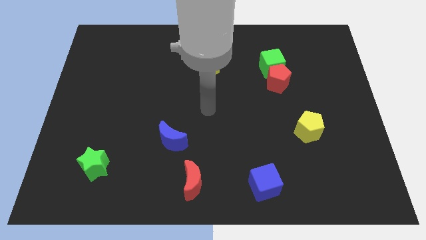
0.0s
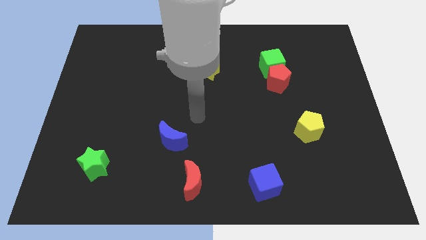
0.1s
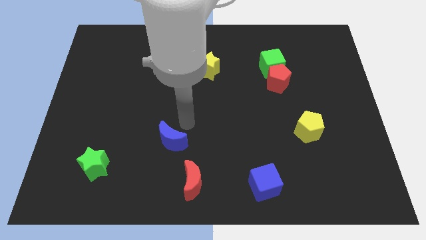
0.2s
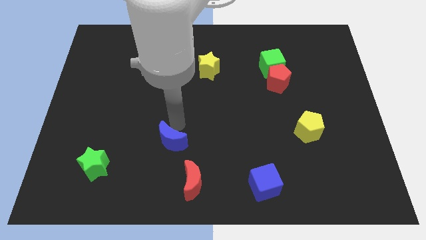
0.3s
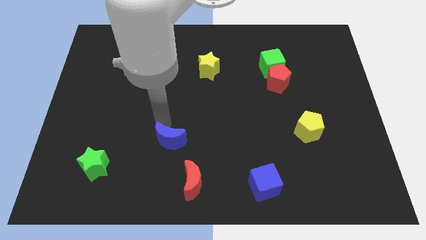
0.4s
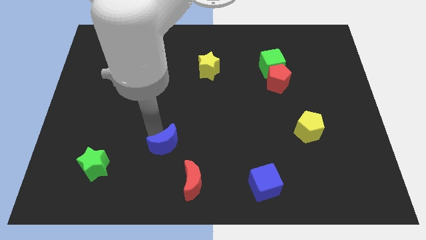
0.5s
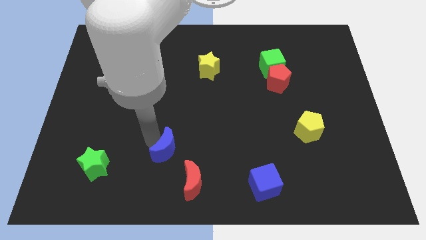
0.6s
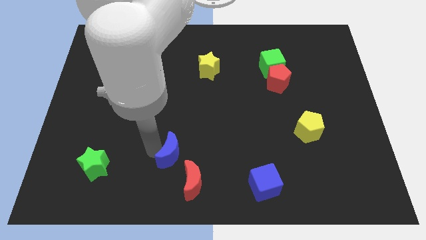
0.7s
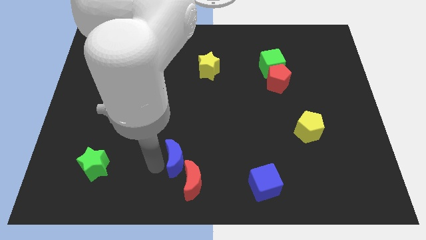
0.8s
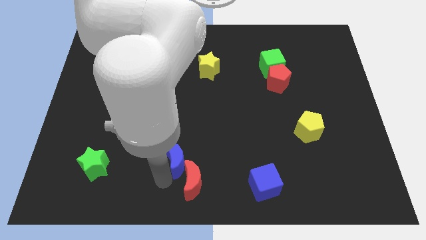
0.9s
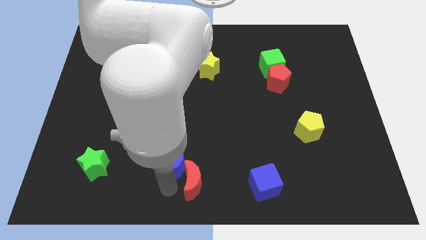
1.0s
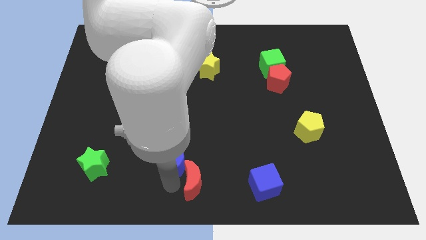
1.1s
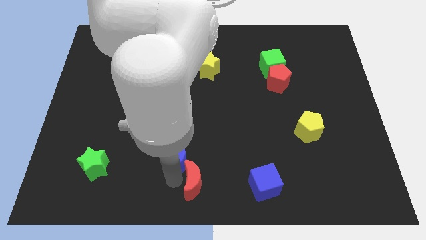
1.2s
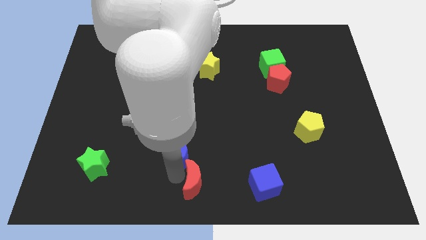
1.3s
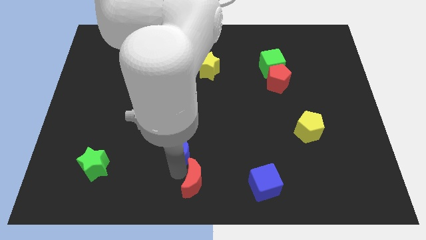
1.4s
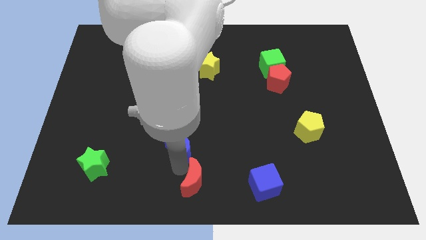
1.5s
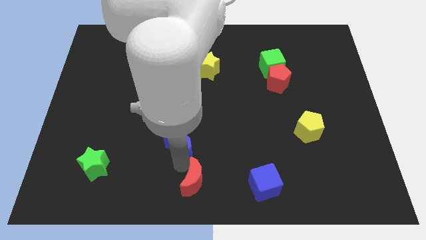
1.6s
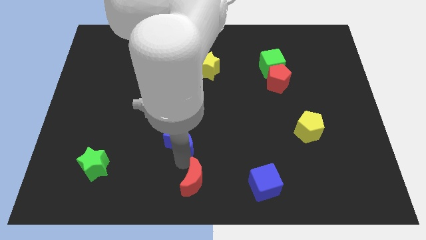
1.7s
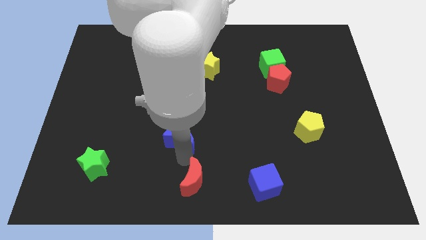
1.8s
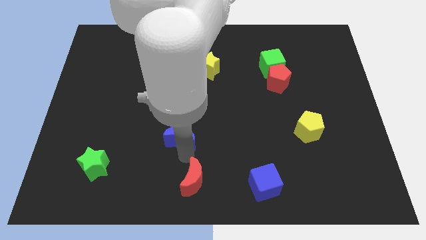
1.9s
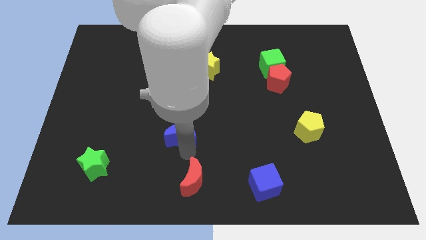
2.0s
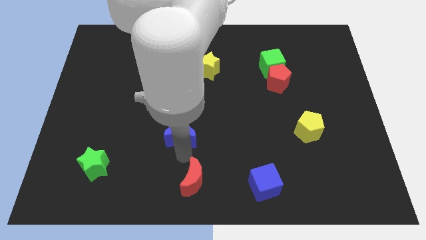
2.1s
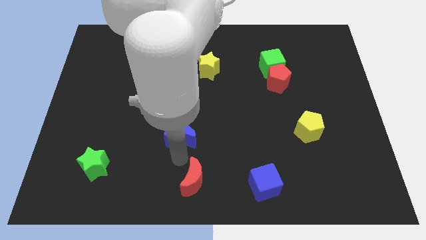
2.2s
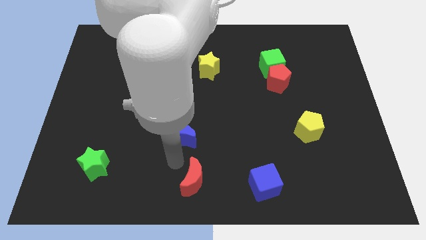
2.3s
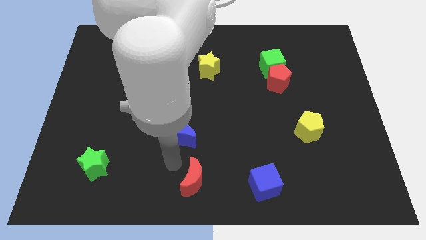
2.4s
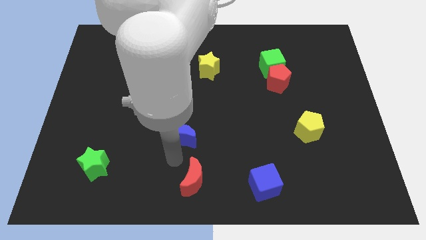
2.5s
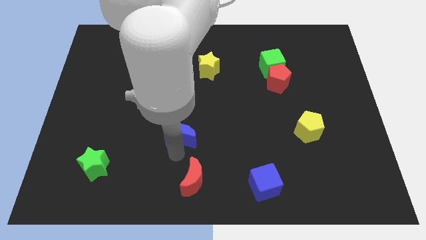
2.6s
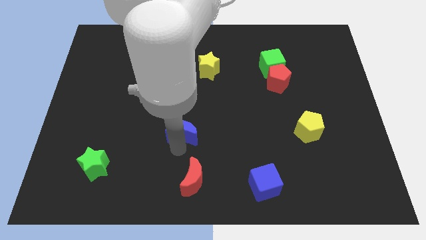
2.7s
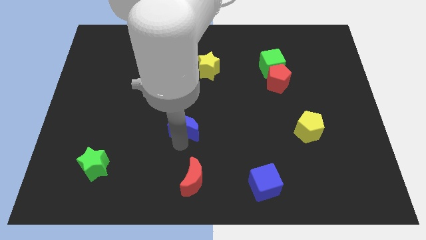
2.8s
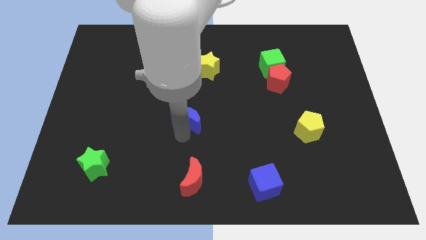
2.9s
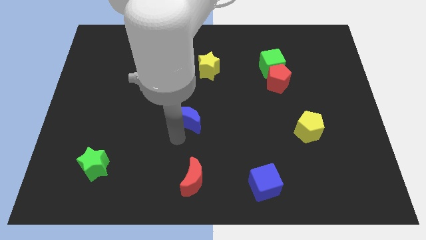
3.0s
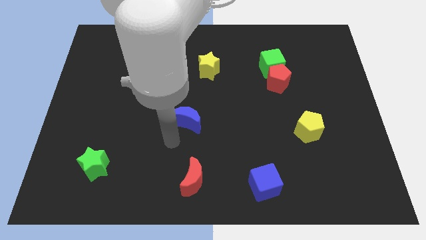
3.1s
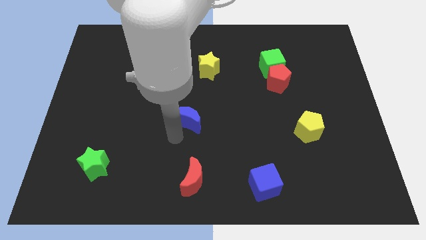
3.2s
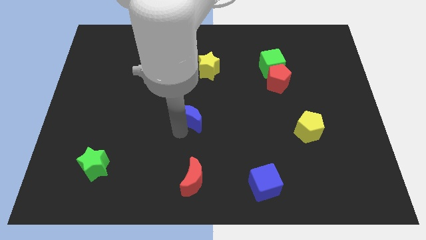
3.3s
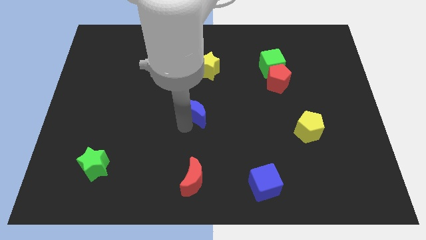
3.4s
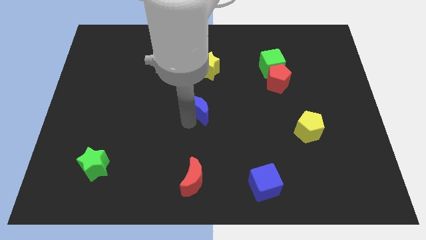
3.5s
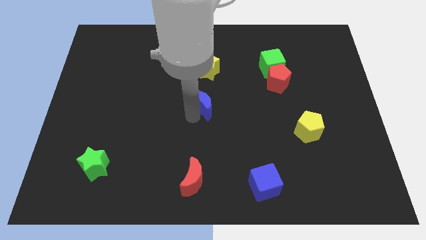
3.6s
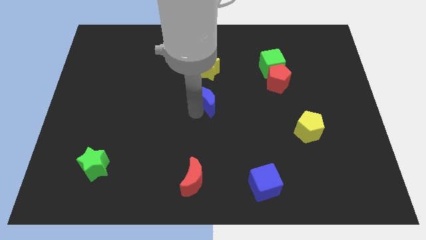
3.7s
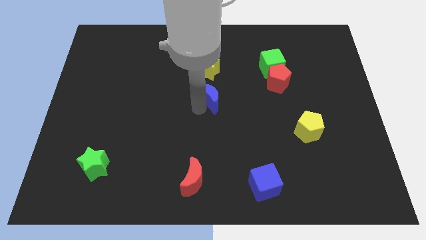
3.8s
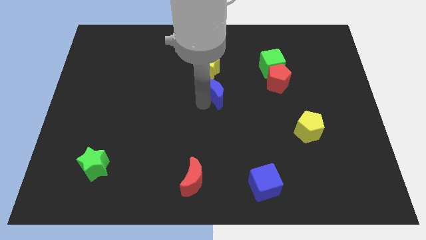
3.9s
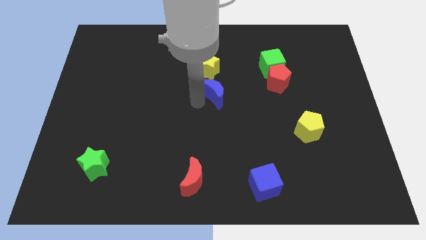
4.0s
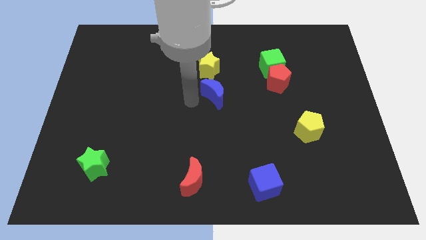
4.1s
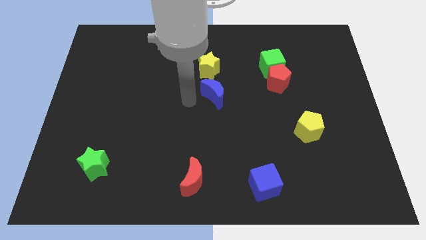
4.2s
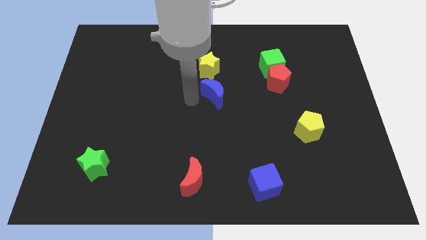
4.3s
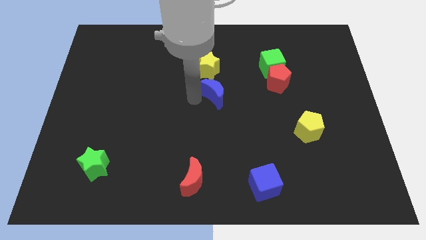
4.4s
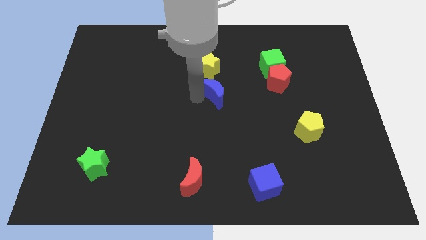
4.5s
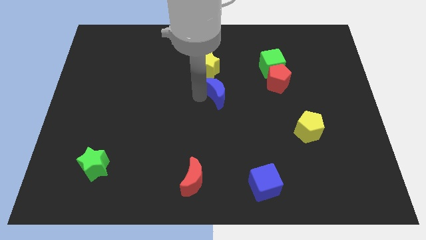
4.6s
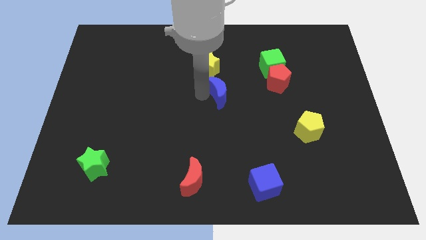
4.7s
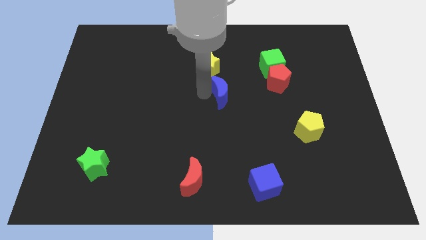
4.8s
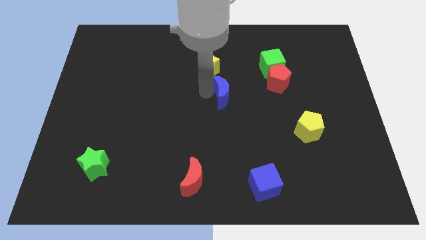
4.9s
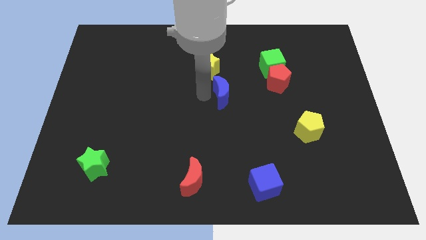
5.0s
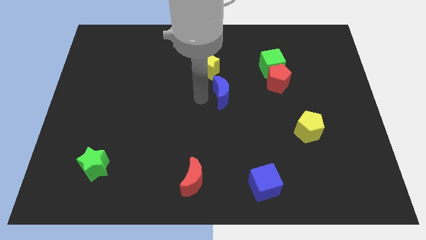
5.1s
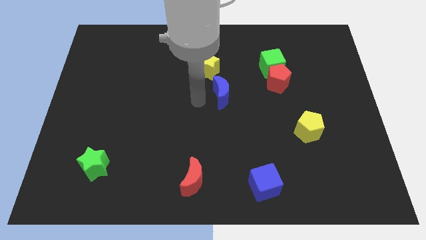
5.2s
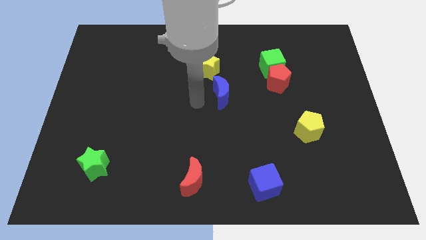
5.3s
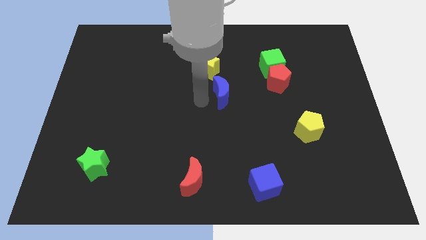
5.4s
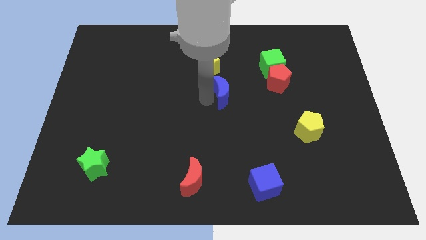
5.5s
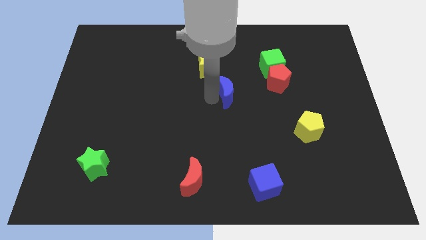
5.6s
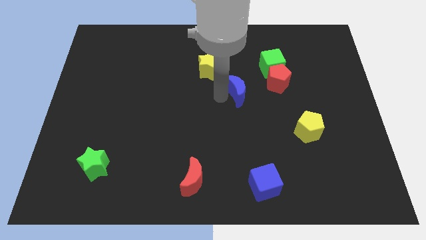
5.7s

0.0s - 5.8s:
slide the blue moon diagonally down and to the left of the green cube

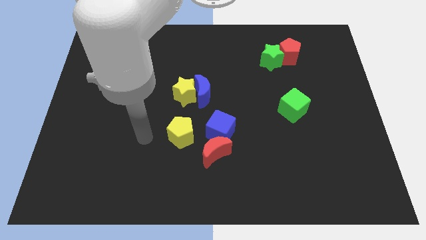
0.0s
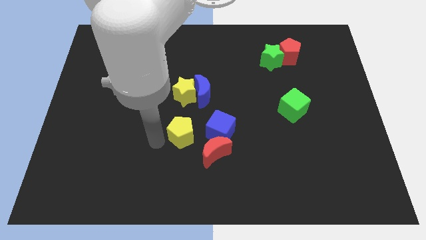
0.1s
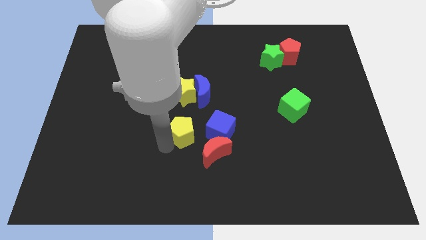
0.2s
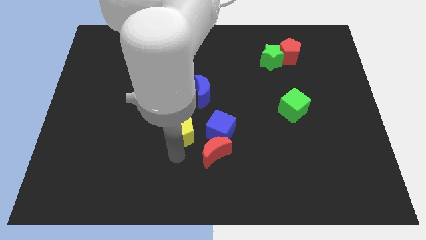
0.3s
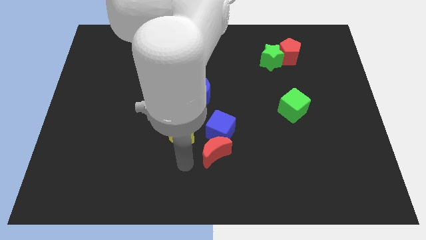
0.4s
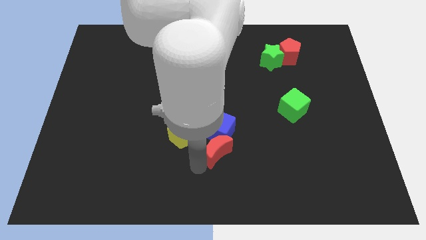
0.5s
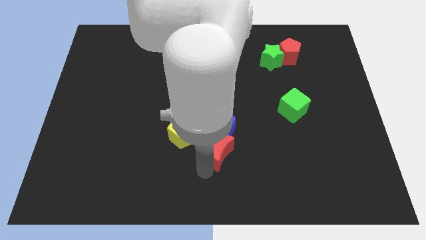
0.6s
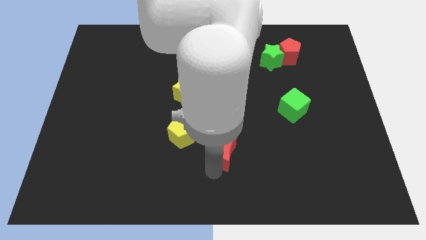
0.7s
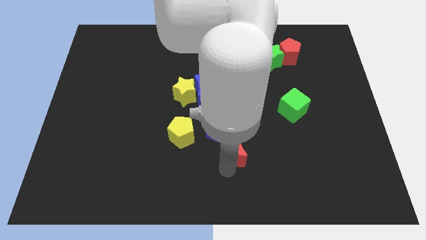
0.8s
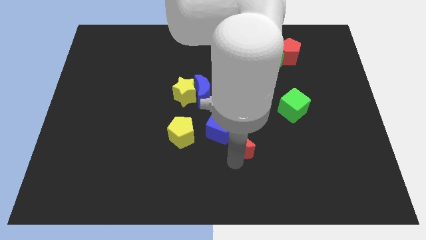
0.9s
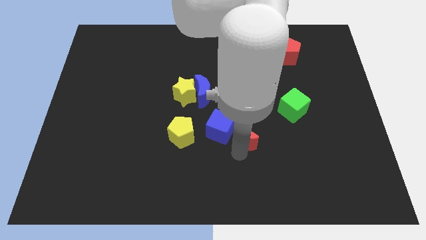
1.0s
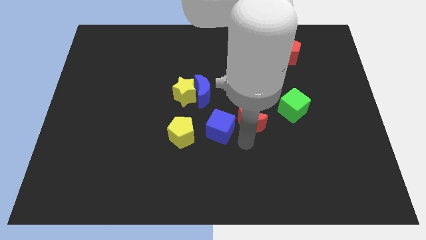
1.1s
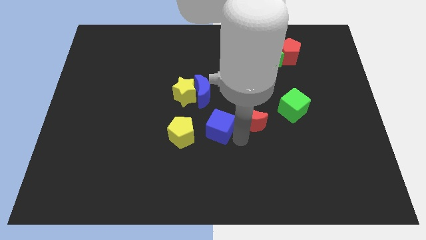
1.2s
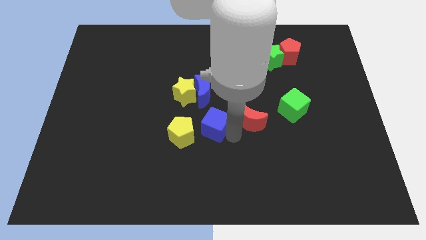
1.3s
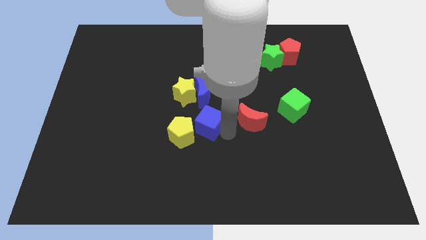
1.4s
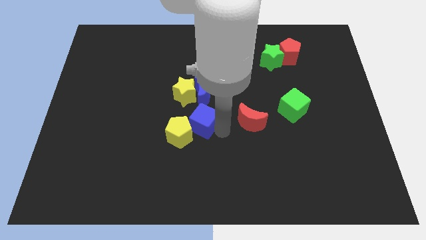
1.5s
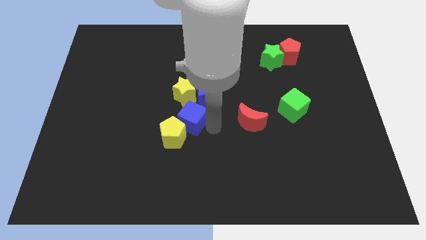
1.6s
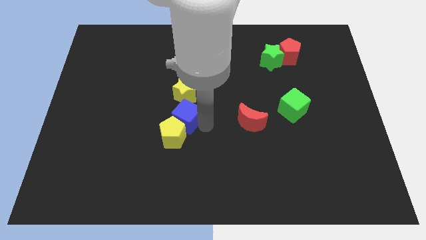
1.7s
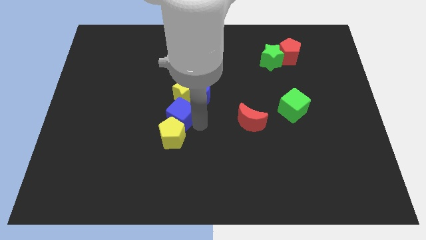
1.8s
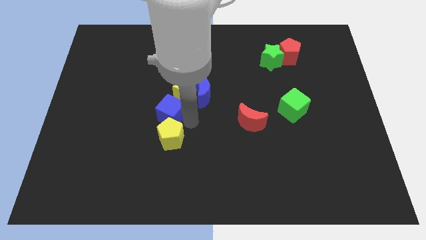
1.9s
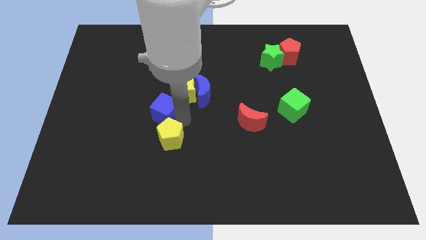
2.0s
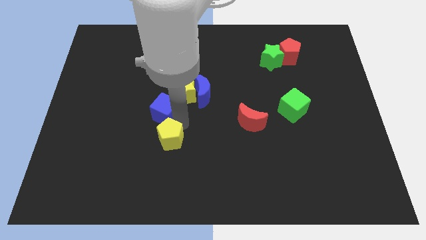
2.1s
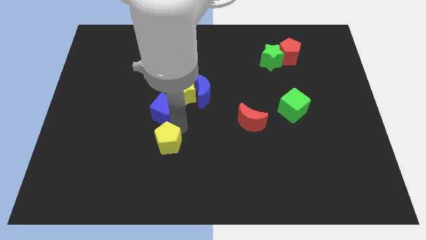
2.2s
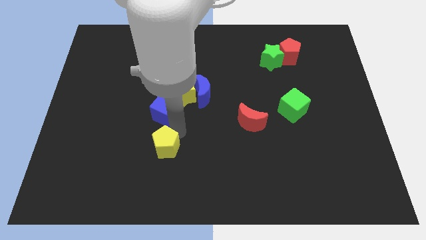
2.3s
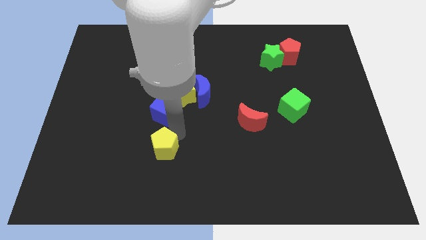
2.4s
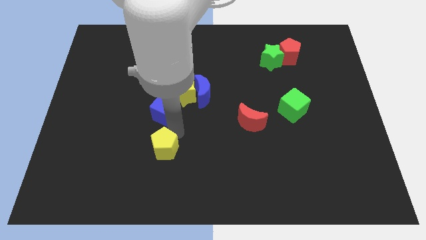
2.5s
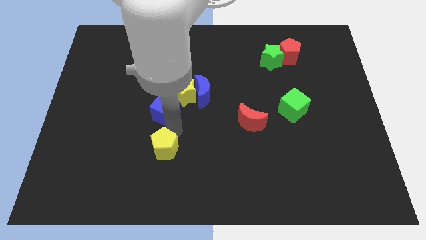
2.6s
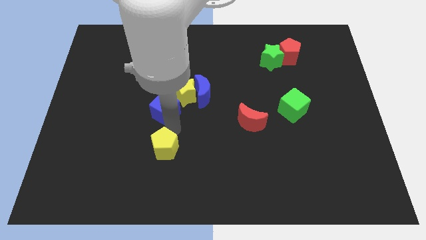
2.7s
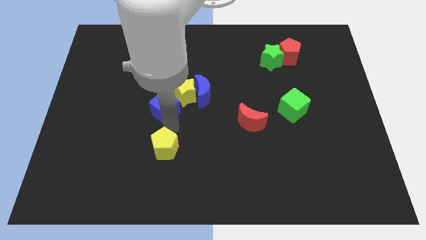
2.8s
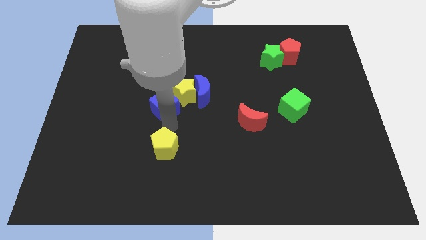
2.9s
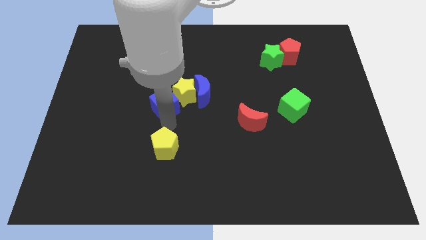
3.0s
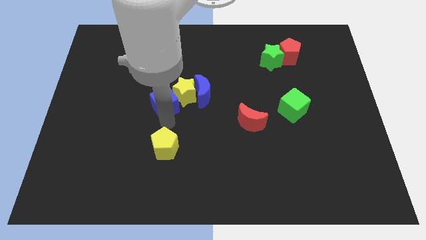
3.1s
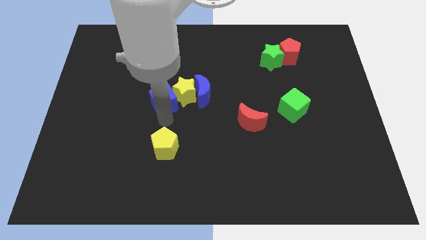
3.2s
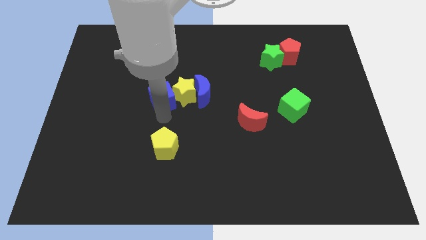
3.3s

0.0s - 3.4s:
push the blue cube to the top left of the yellow star
